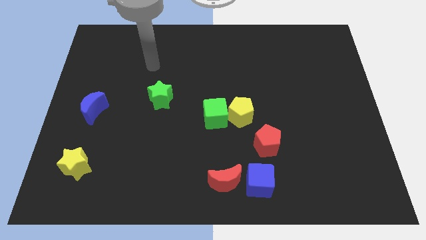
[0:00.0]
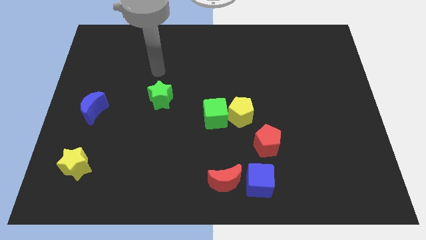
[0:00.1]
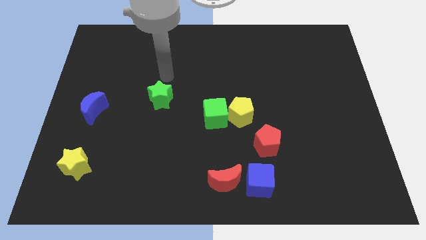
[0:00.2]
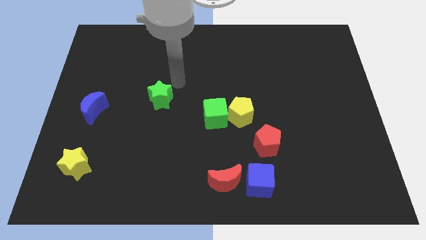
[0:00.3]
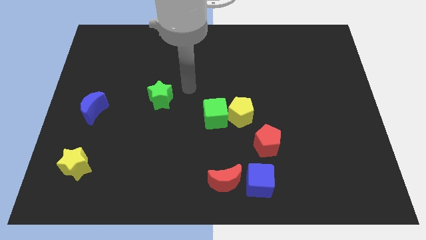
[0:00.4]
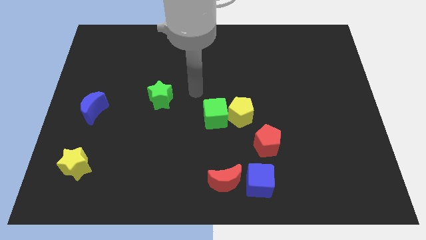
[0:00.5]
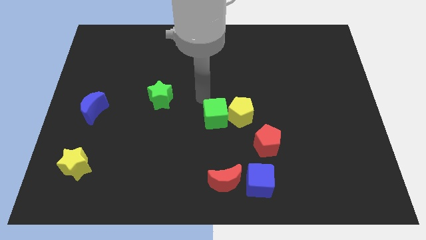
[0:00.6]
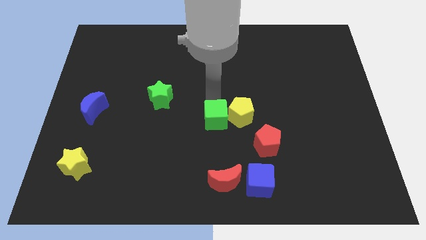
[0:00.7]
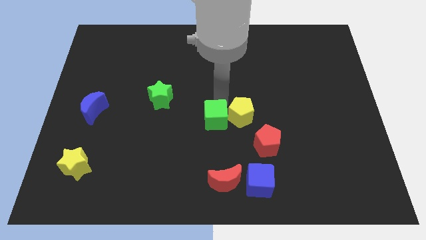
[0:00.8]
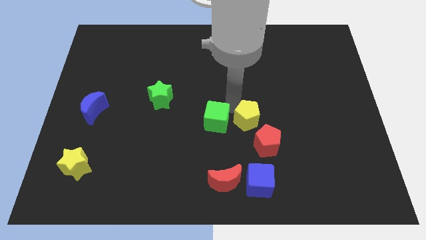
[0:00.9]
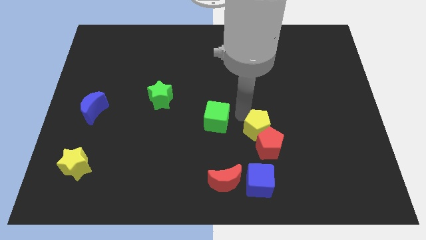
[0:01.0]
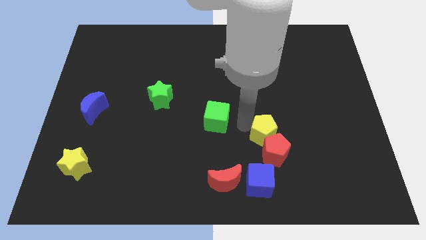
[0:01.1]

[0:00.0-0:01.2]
move the green cube away from the yellow pentagon

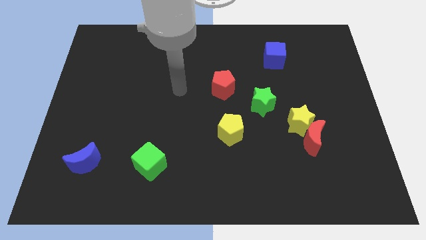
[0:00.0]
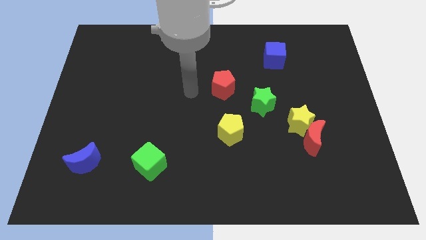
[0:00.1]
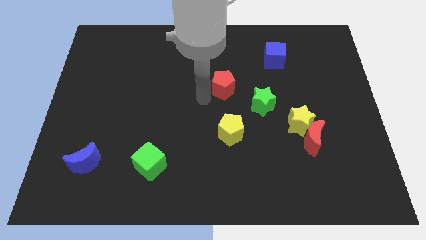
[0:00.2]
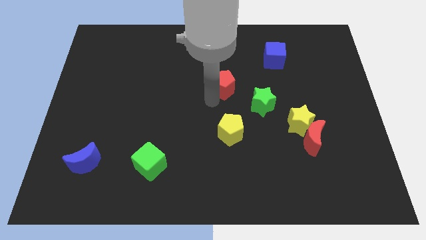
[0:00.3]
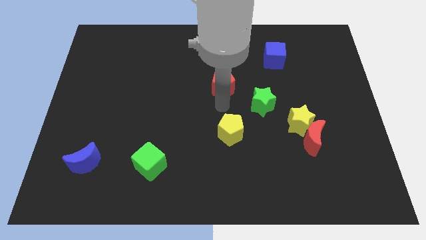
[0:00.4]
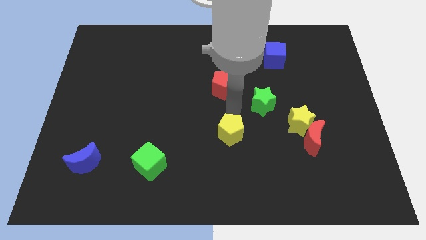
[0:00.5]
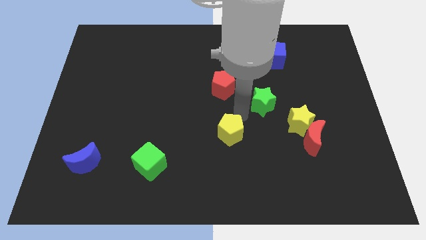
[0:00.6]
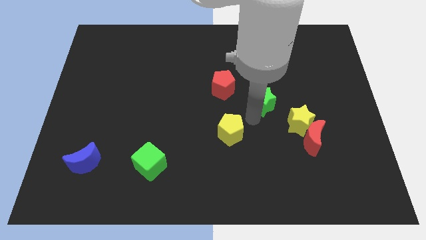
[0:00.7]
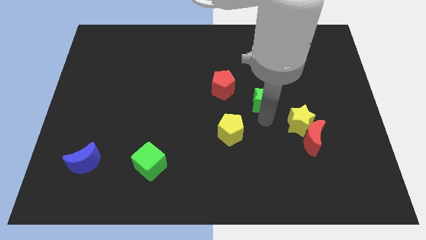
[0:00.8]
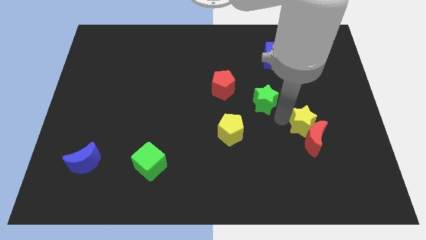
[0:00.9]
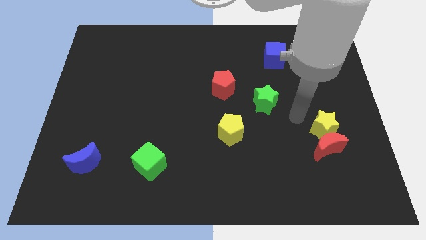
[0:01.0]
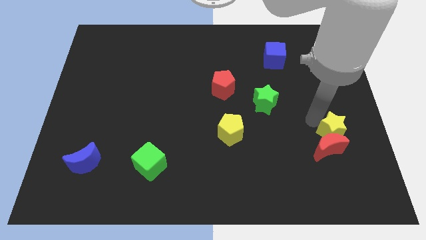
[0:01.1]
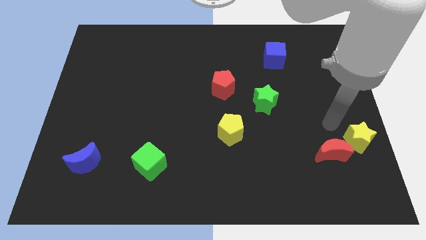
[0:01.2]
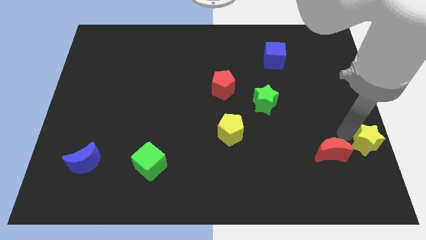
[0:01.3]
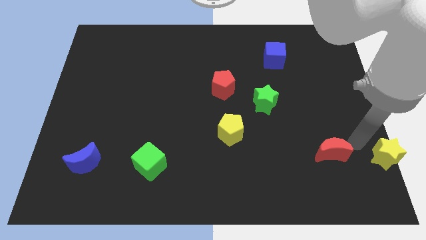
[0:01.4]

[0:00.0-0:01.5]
move the red moon away from the yellow star

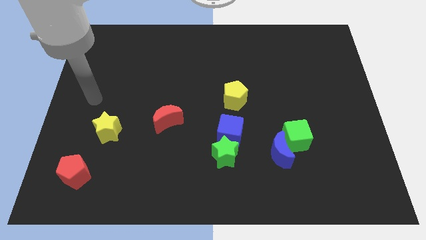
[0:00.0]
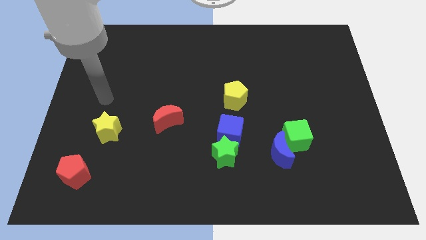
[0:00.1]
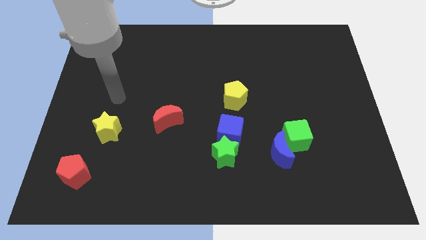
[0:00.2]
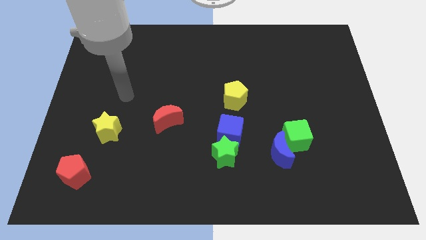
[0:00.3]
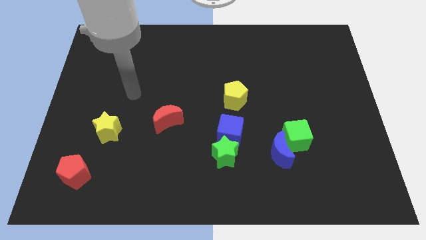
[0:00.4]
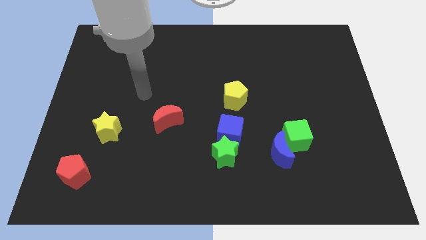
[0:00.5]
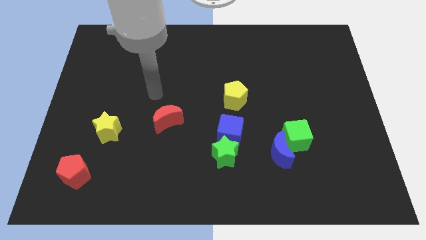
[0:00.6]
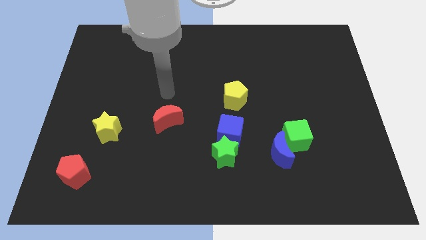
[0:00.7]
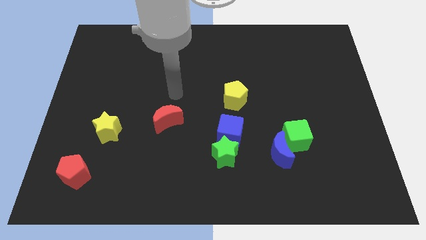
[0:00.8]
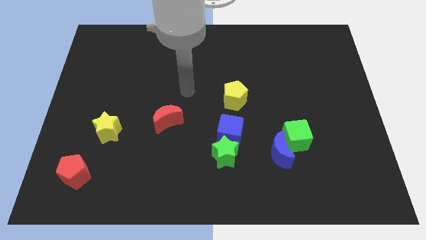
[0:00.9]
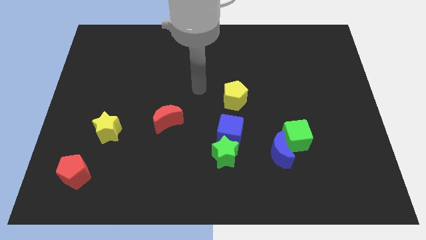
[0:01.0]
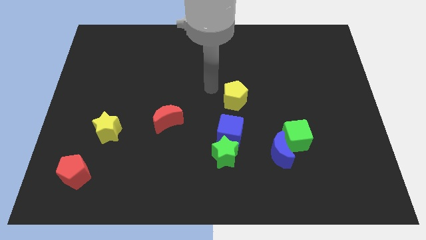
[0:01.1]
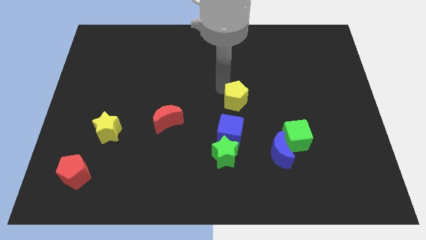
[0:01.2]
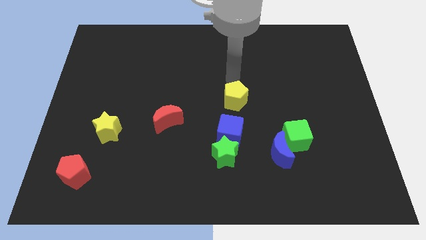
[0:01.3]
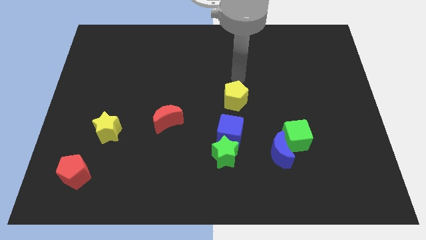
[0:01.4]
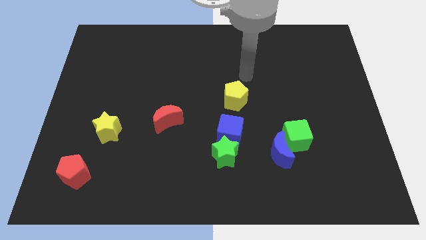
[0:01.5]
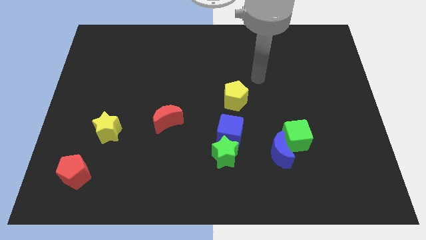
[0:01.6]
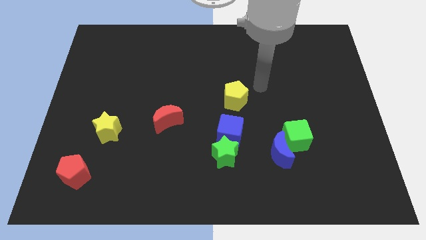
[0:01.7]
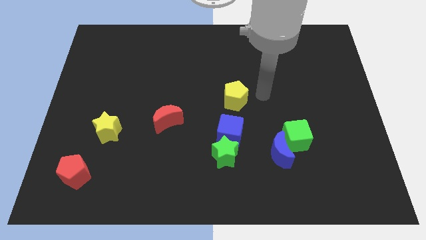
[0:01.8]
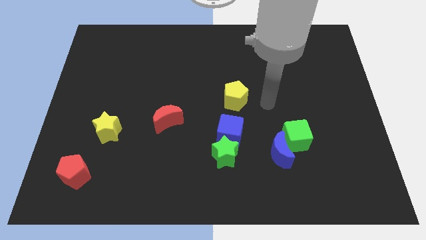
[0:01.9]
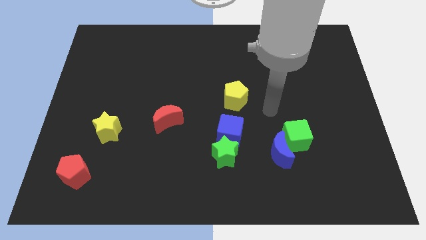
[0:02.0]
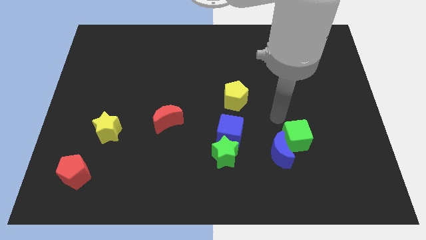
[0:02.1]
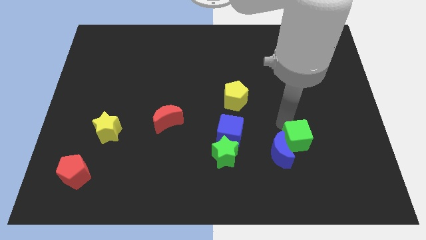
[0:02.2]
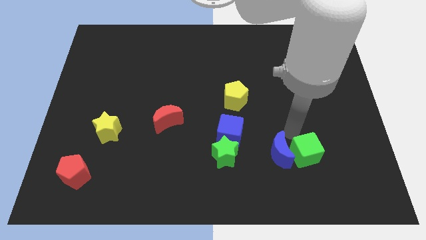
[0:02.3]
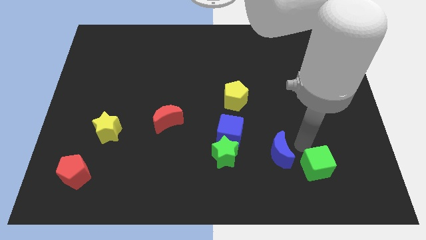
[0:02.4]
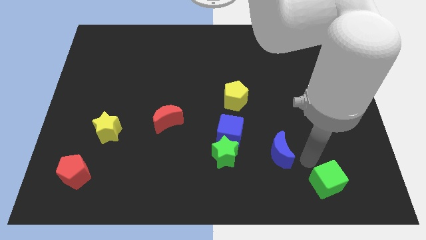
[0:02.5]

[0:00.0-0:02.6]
pull the blue moon apart from the green cube

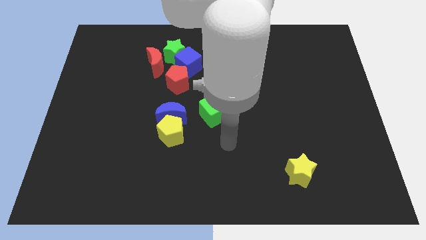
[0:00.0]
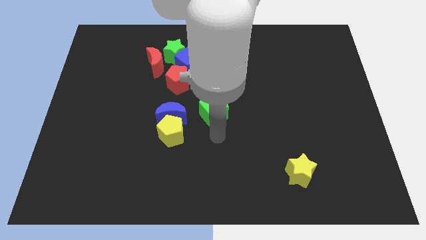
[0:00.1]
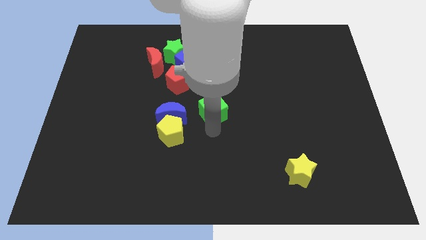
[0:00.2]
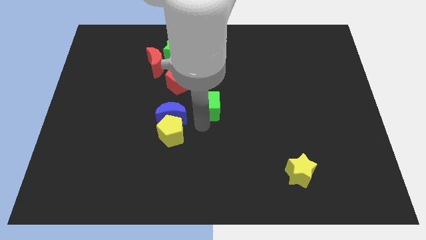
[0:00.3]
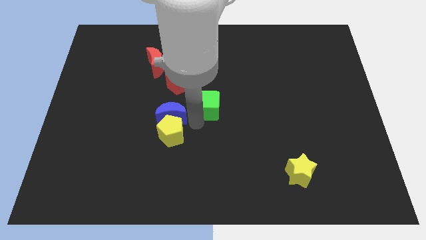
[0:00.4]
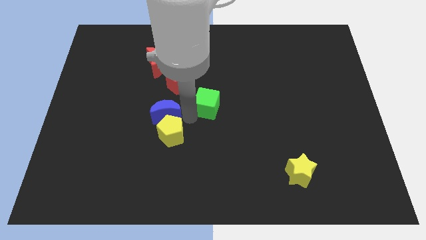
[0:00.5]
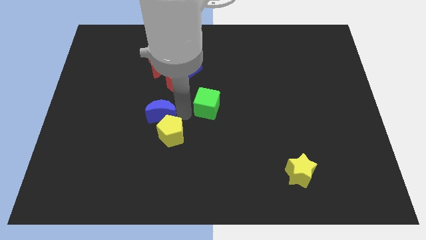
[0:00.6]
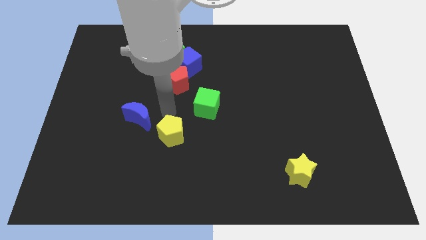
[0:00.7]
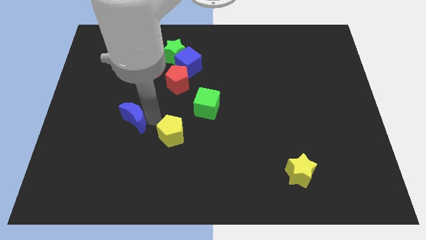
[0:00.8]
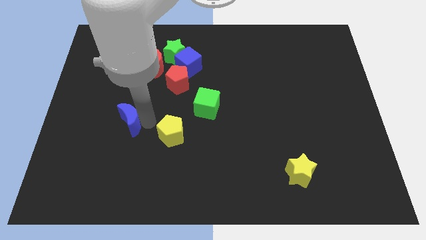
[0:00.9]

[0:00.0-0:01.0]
pull the yellow pentagon apart from the blue moon

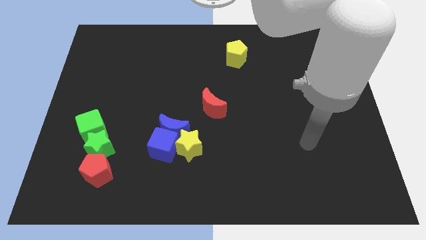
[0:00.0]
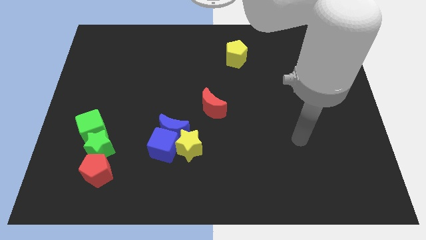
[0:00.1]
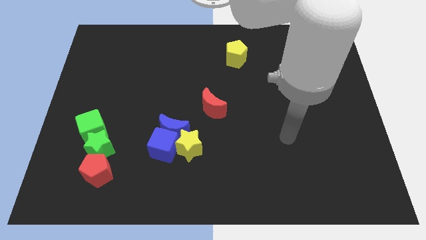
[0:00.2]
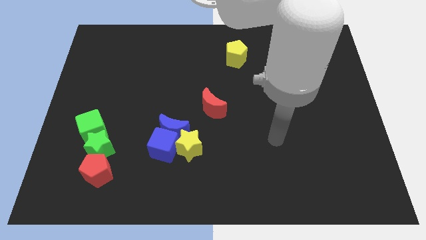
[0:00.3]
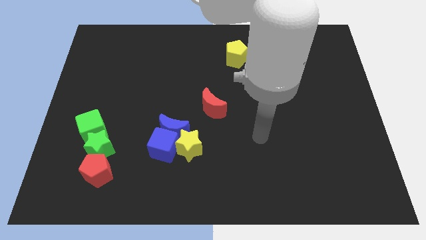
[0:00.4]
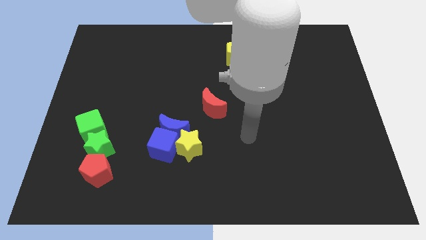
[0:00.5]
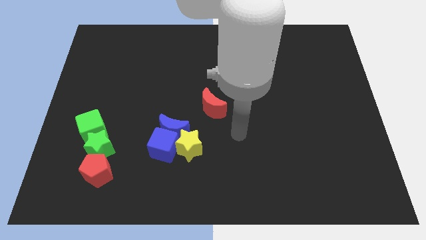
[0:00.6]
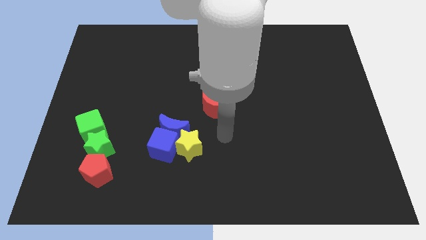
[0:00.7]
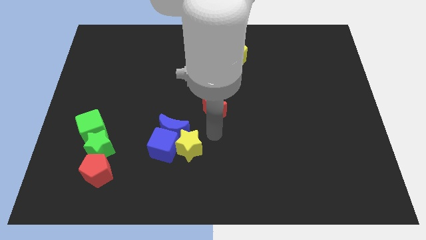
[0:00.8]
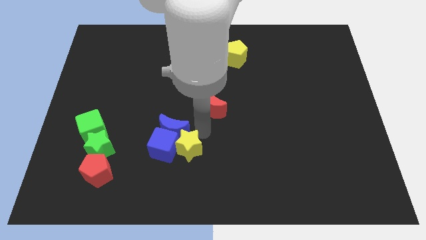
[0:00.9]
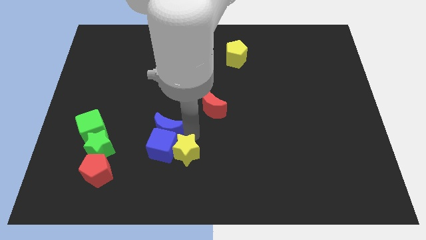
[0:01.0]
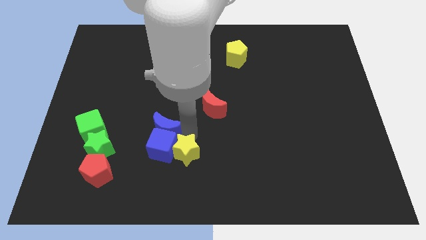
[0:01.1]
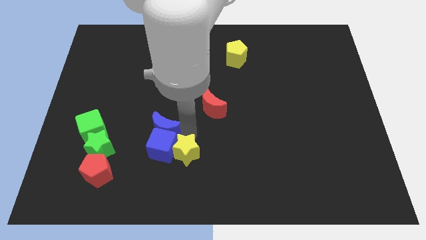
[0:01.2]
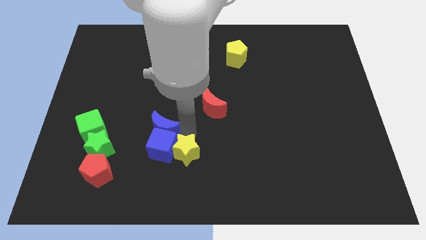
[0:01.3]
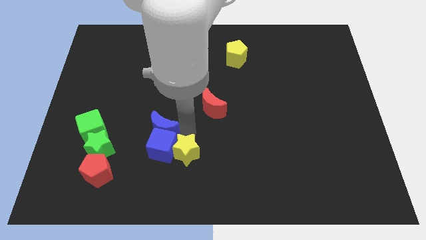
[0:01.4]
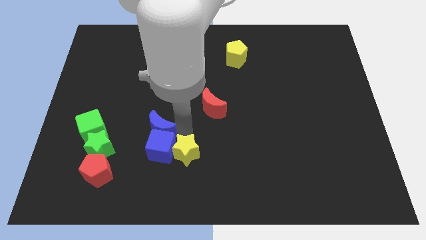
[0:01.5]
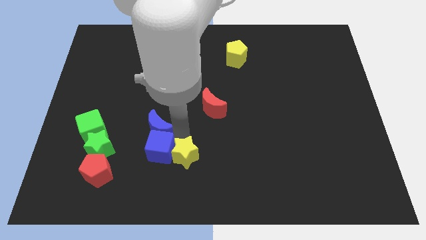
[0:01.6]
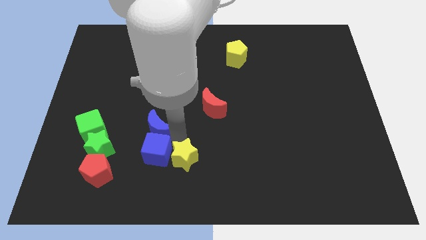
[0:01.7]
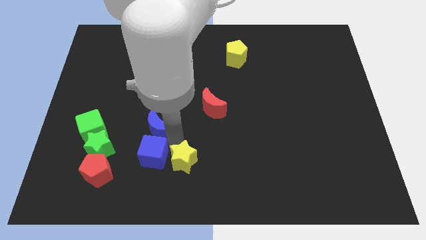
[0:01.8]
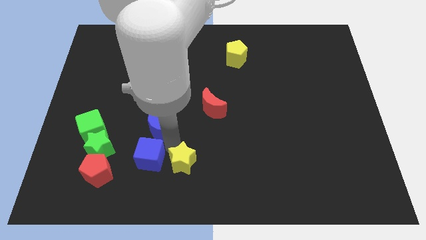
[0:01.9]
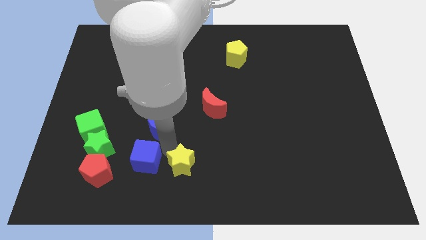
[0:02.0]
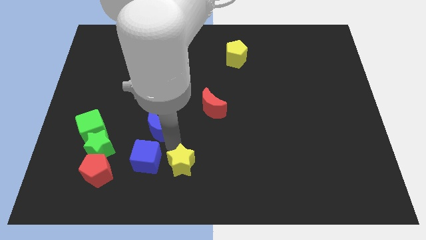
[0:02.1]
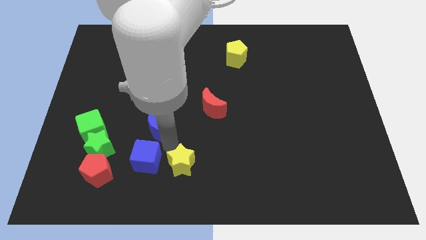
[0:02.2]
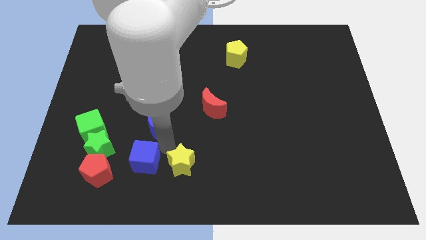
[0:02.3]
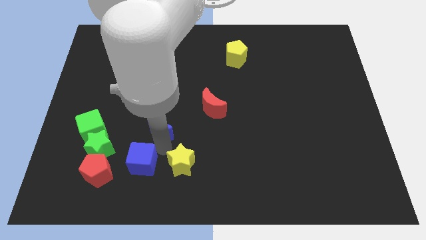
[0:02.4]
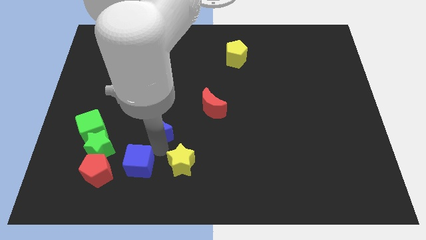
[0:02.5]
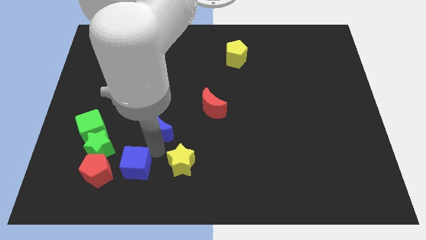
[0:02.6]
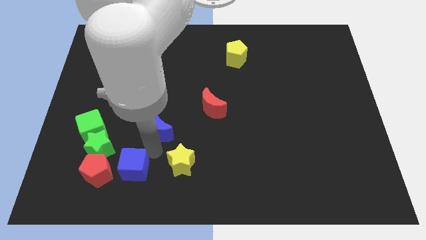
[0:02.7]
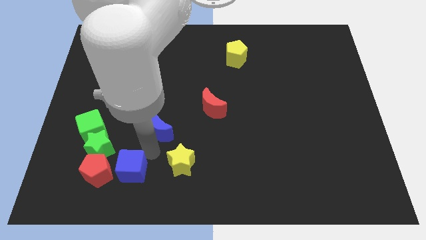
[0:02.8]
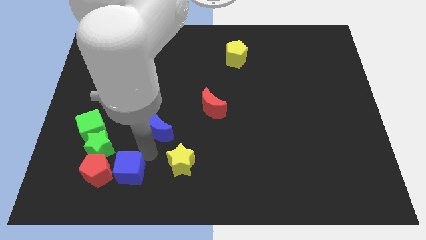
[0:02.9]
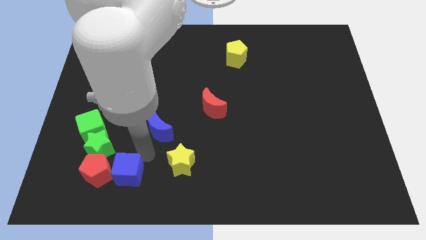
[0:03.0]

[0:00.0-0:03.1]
separate the blue cube from the blue moon and yellow star
